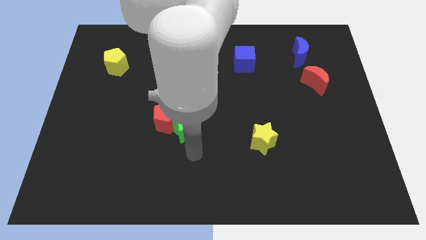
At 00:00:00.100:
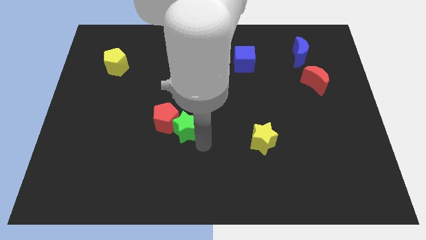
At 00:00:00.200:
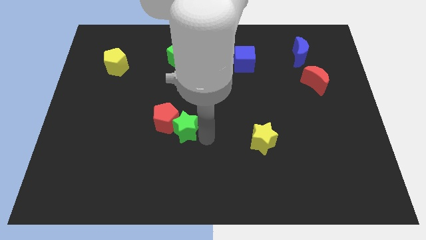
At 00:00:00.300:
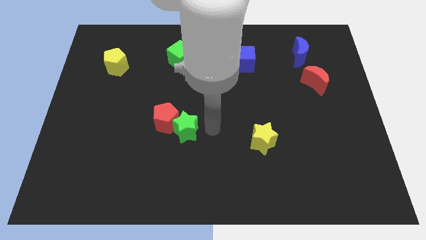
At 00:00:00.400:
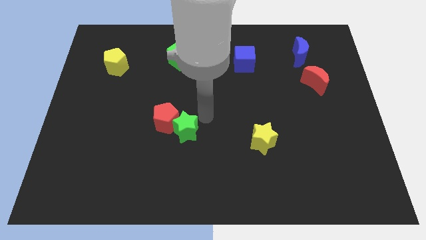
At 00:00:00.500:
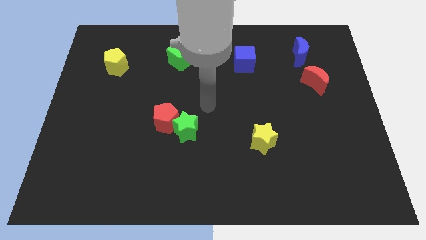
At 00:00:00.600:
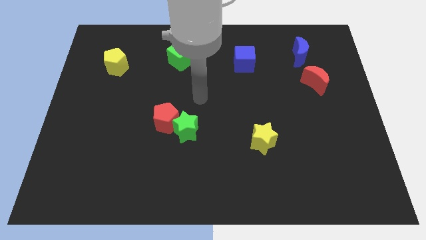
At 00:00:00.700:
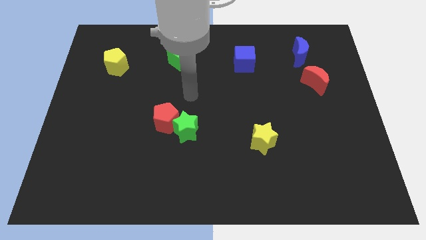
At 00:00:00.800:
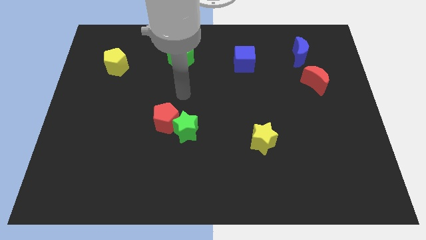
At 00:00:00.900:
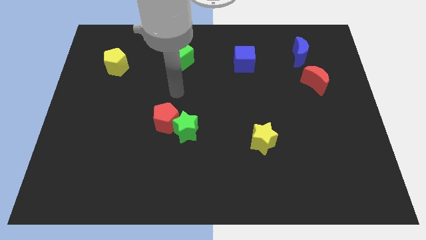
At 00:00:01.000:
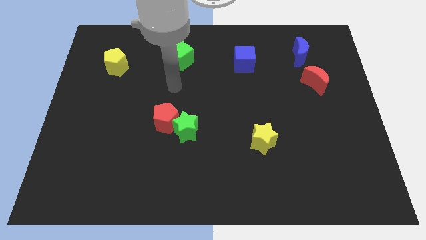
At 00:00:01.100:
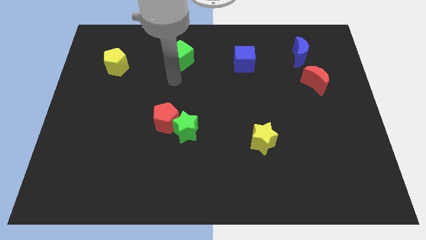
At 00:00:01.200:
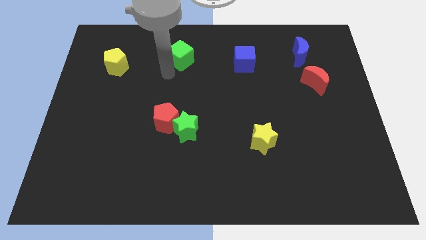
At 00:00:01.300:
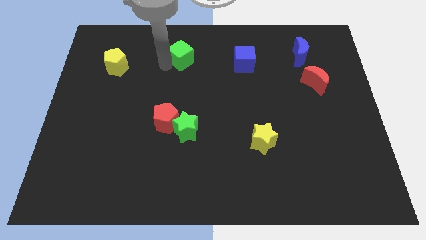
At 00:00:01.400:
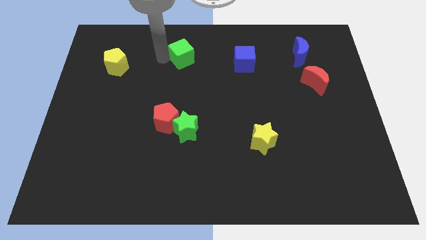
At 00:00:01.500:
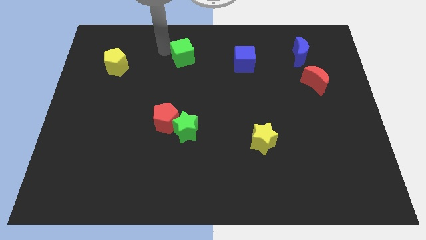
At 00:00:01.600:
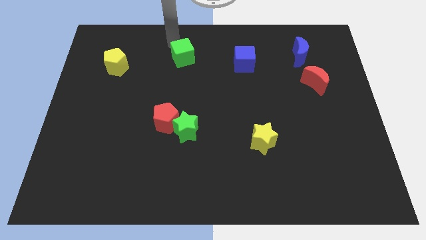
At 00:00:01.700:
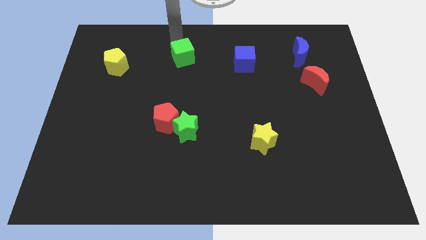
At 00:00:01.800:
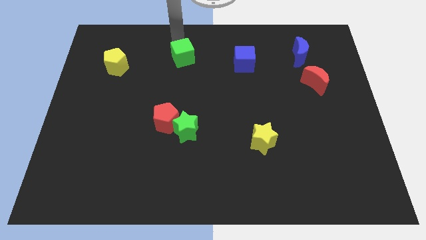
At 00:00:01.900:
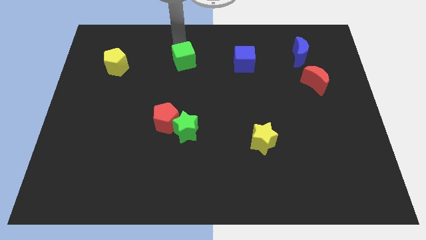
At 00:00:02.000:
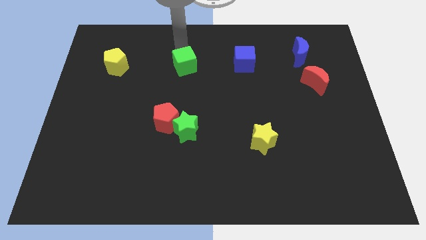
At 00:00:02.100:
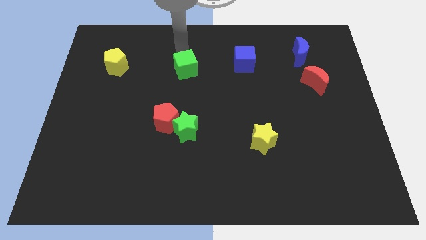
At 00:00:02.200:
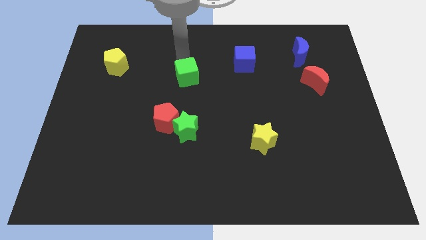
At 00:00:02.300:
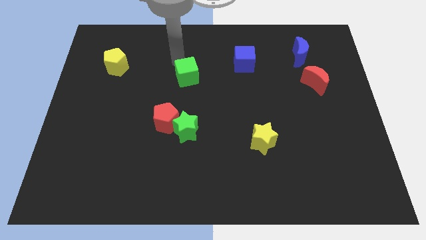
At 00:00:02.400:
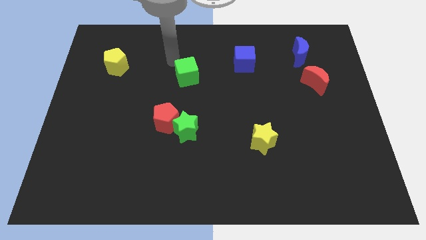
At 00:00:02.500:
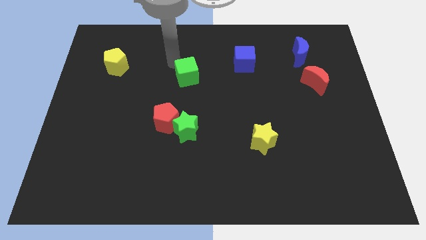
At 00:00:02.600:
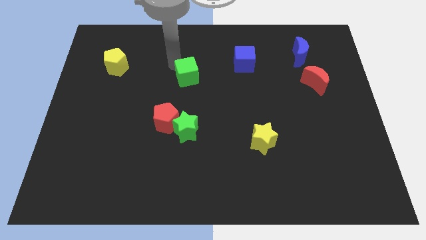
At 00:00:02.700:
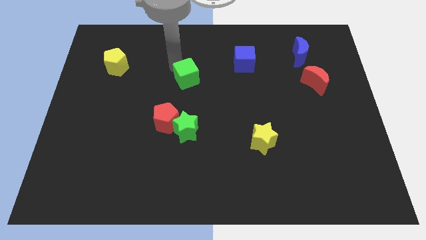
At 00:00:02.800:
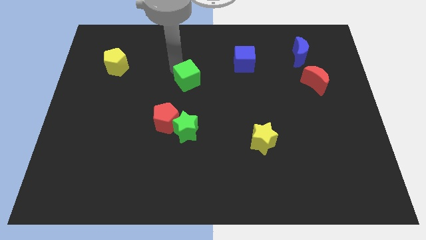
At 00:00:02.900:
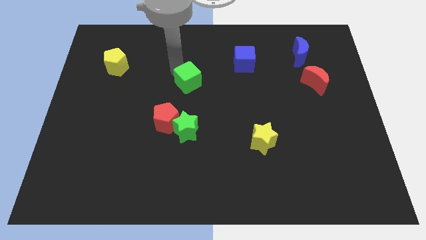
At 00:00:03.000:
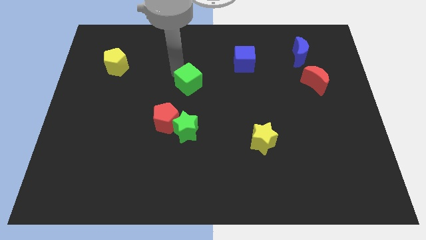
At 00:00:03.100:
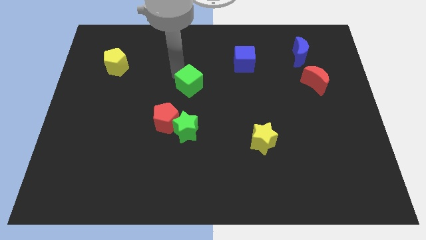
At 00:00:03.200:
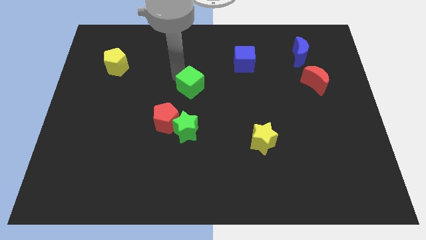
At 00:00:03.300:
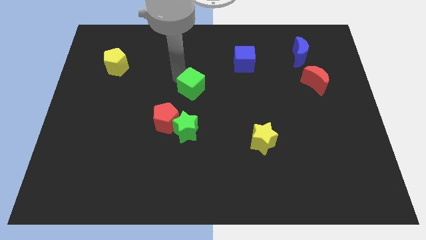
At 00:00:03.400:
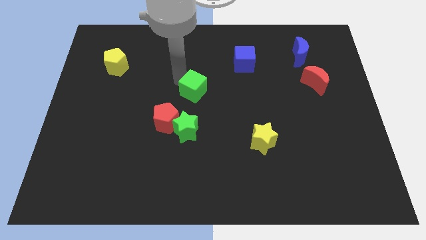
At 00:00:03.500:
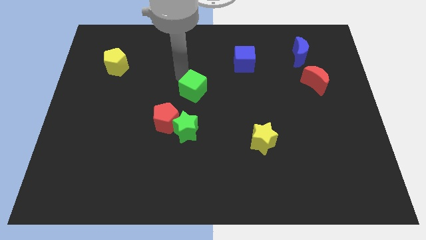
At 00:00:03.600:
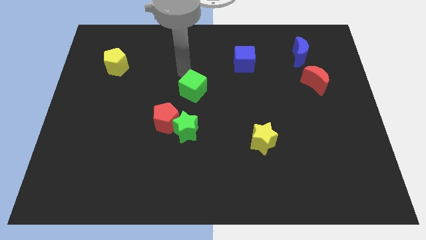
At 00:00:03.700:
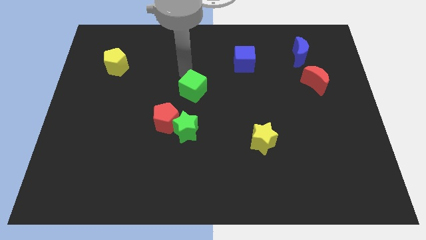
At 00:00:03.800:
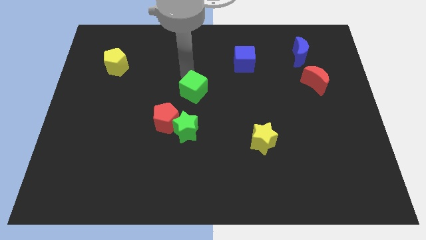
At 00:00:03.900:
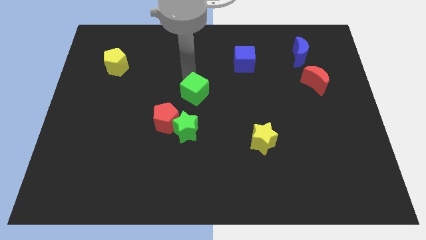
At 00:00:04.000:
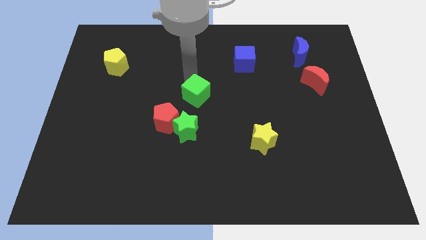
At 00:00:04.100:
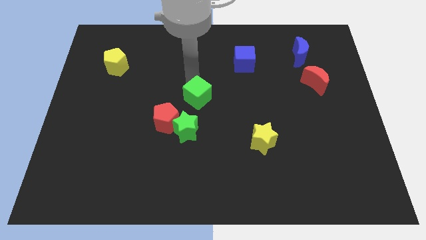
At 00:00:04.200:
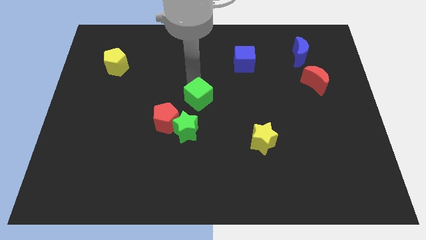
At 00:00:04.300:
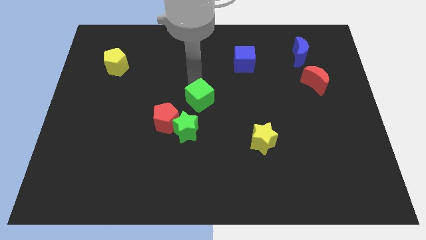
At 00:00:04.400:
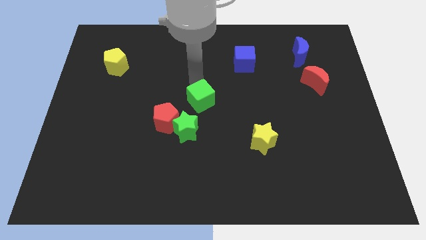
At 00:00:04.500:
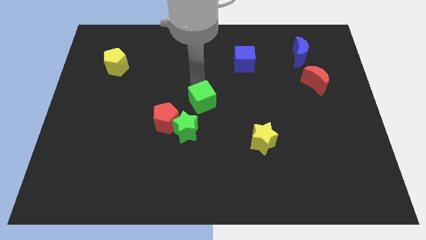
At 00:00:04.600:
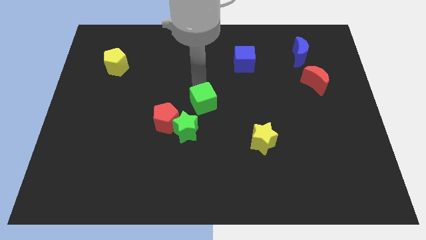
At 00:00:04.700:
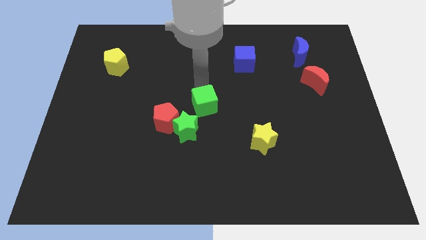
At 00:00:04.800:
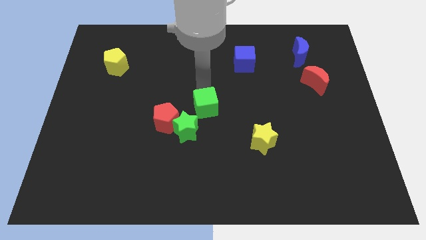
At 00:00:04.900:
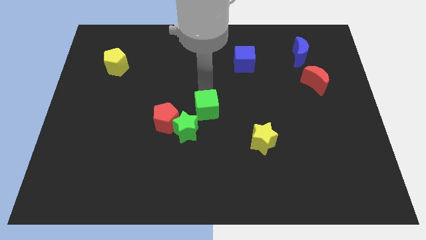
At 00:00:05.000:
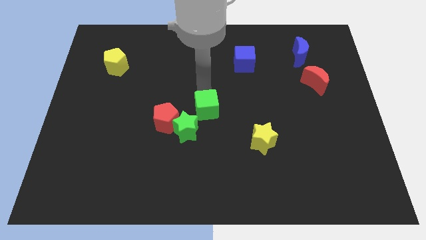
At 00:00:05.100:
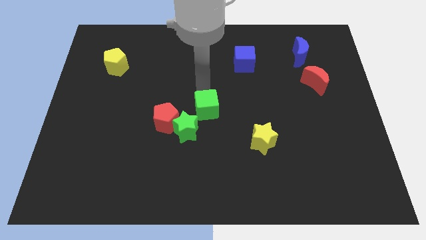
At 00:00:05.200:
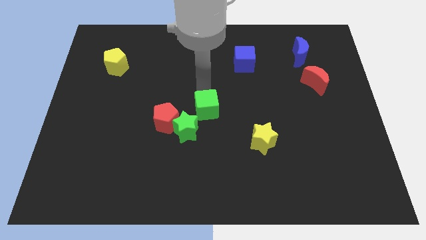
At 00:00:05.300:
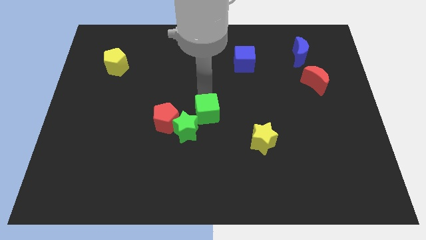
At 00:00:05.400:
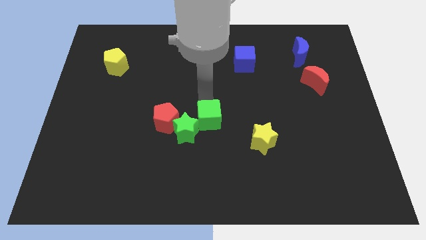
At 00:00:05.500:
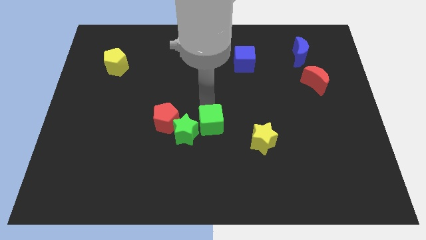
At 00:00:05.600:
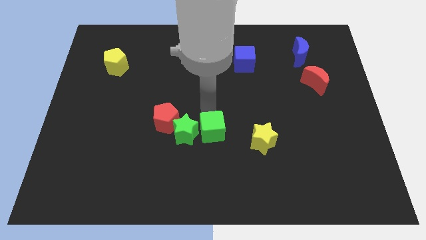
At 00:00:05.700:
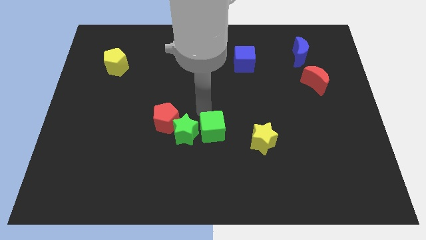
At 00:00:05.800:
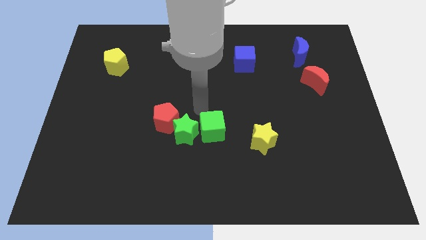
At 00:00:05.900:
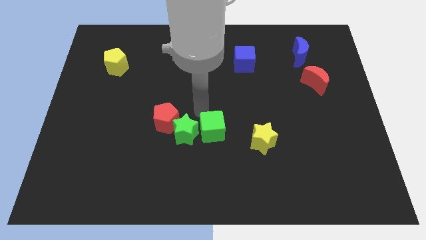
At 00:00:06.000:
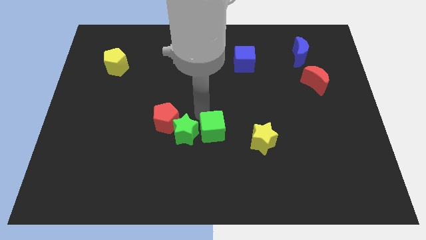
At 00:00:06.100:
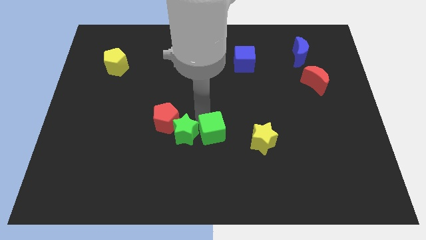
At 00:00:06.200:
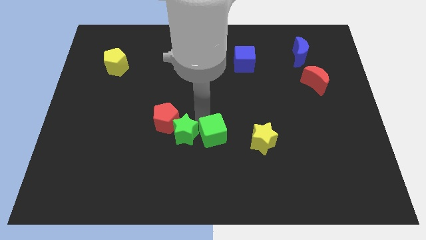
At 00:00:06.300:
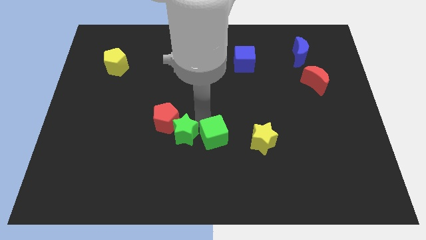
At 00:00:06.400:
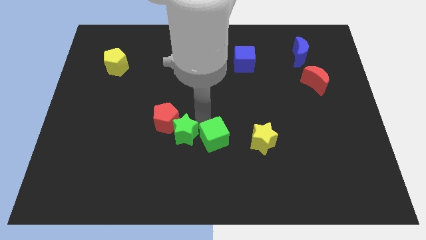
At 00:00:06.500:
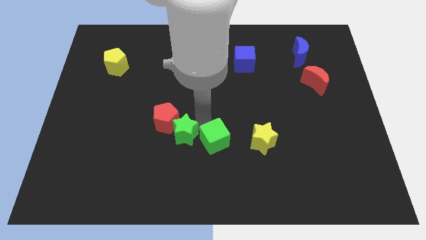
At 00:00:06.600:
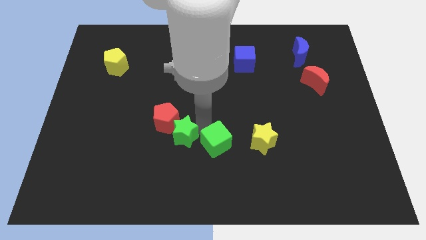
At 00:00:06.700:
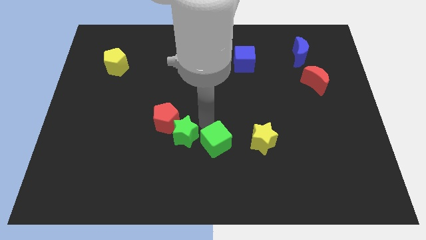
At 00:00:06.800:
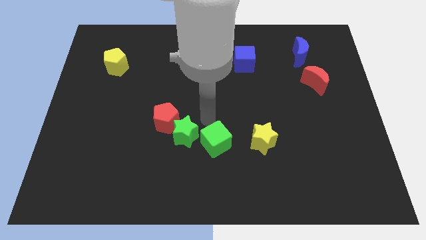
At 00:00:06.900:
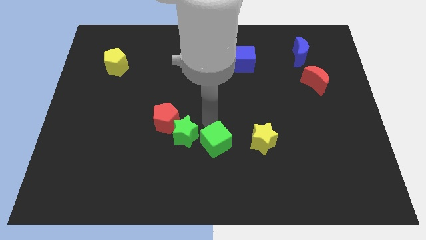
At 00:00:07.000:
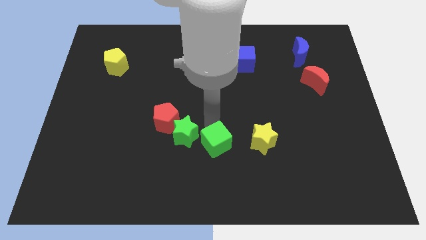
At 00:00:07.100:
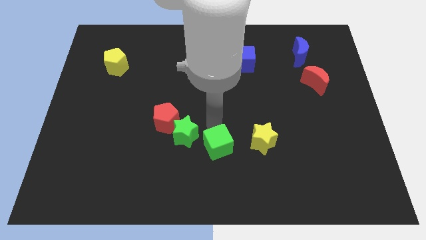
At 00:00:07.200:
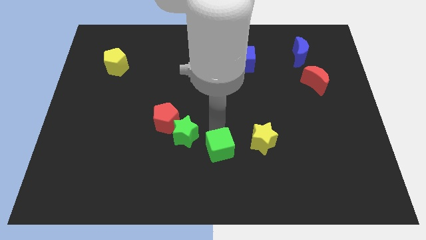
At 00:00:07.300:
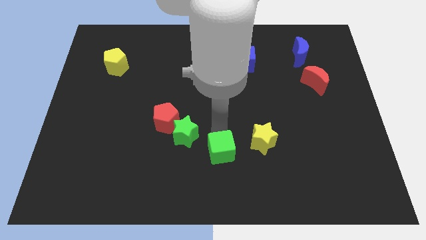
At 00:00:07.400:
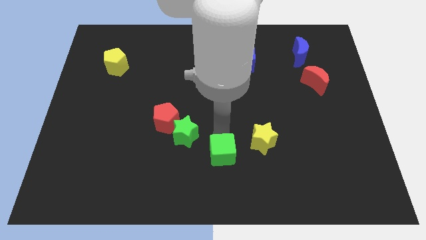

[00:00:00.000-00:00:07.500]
put the green cube to the bottom
